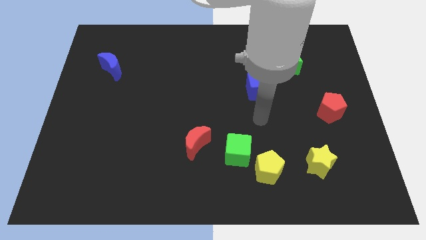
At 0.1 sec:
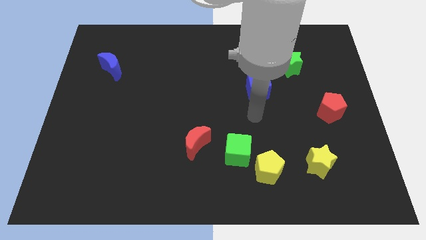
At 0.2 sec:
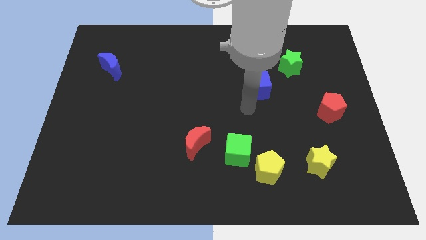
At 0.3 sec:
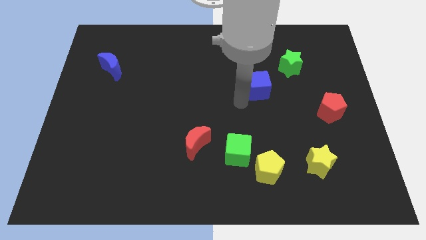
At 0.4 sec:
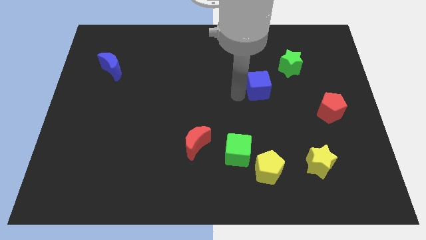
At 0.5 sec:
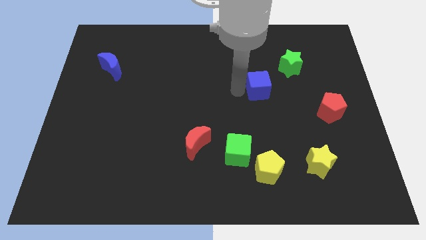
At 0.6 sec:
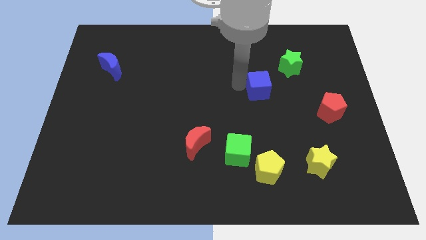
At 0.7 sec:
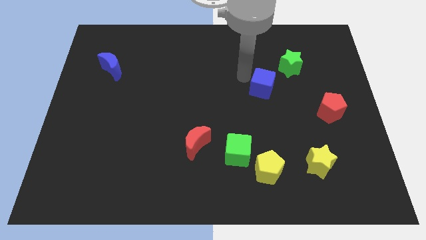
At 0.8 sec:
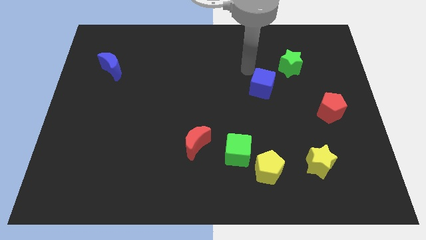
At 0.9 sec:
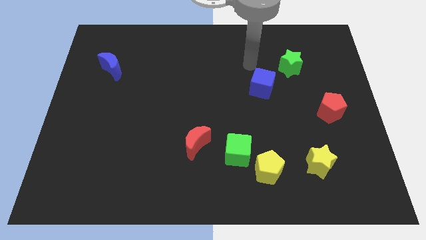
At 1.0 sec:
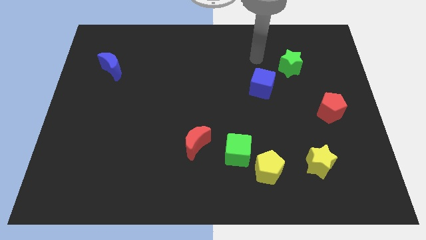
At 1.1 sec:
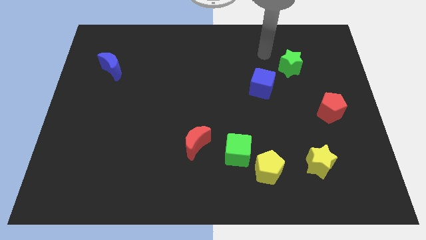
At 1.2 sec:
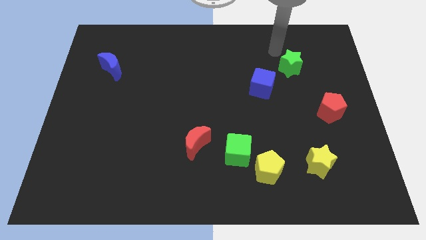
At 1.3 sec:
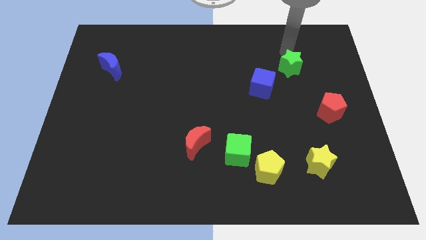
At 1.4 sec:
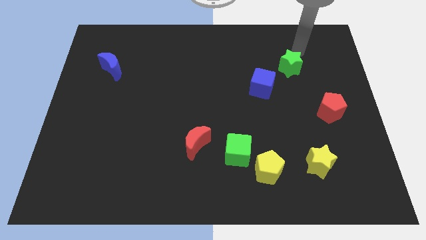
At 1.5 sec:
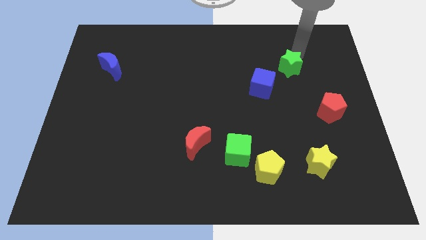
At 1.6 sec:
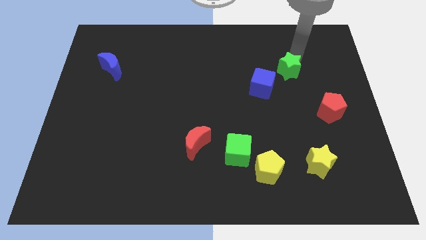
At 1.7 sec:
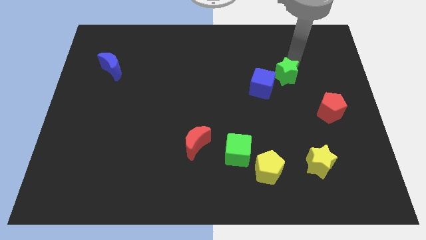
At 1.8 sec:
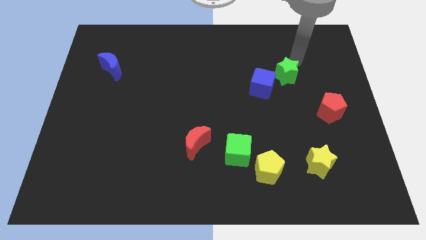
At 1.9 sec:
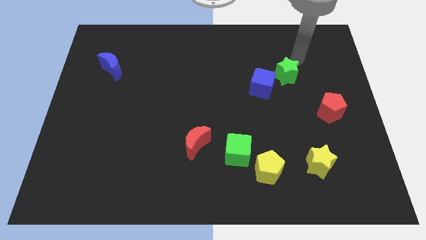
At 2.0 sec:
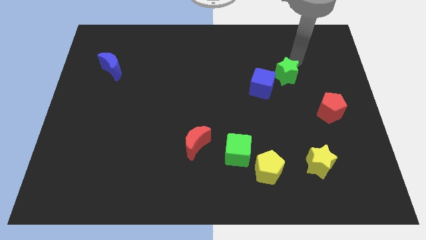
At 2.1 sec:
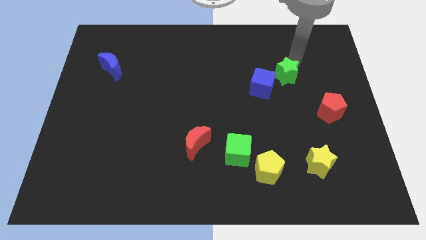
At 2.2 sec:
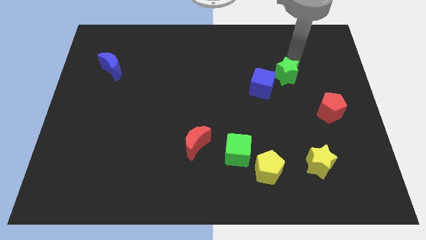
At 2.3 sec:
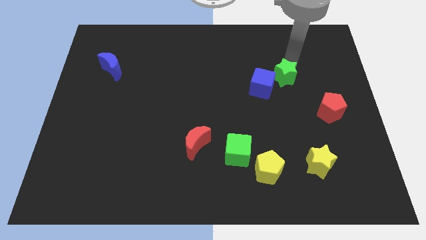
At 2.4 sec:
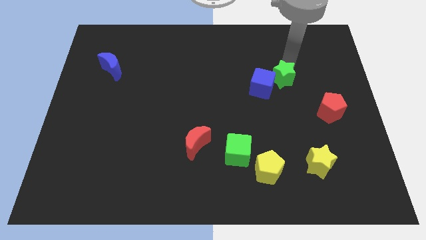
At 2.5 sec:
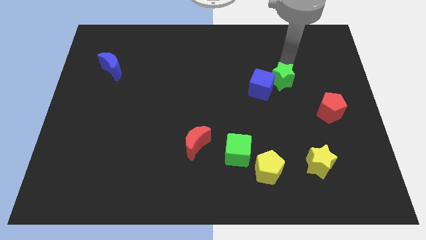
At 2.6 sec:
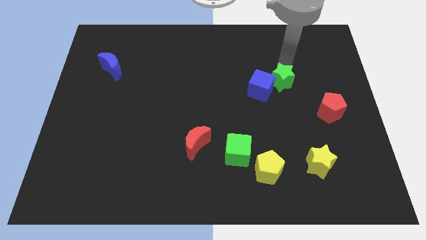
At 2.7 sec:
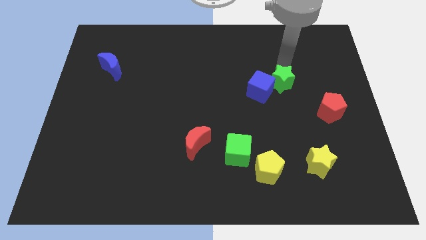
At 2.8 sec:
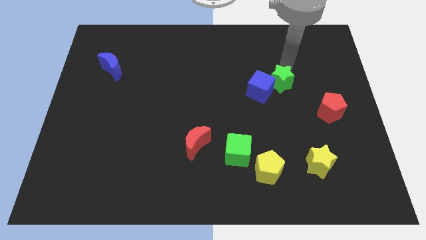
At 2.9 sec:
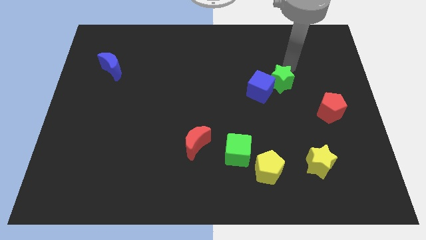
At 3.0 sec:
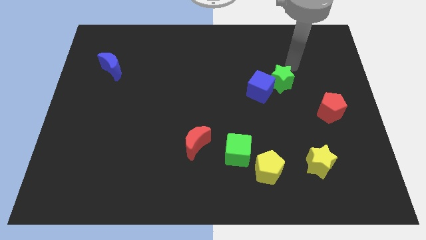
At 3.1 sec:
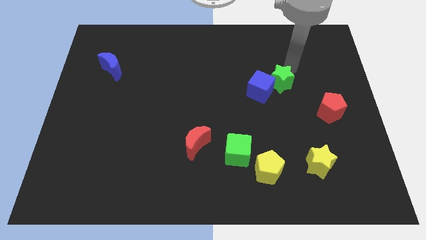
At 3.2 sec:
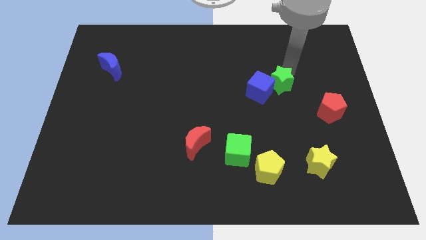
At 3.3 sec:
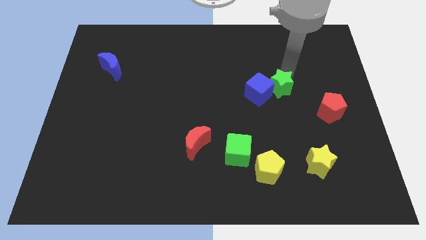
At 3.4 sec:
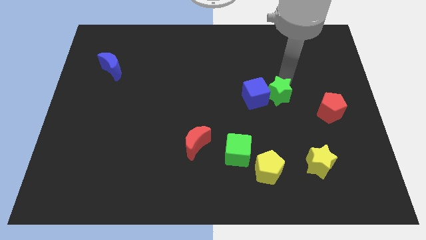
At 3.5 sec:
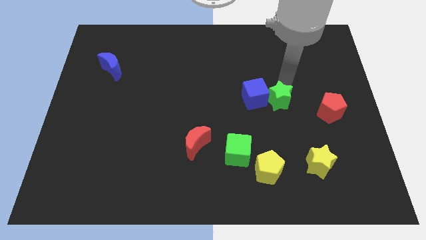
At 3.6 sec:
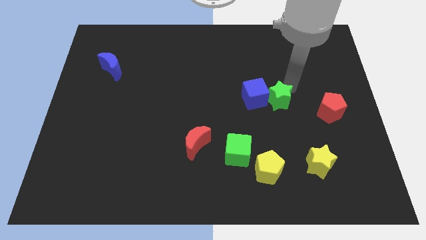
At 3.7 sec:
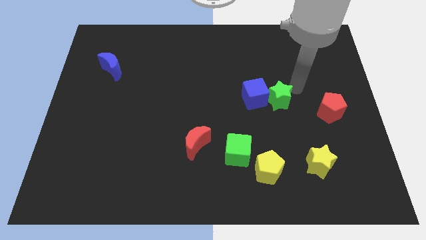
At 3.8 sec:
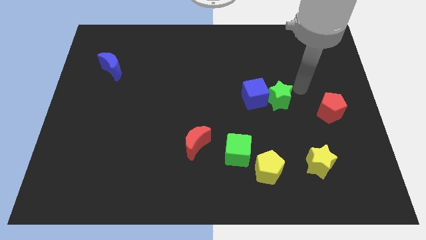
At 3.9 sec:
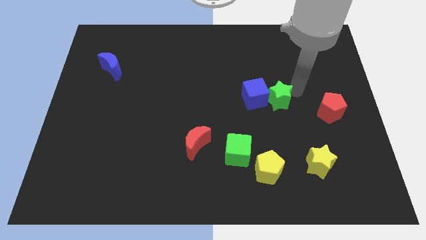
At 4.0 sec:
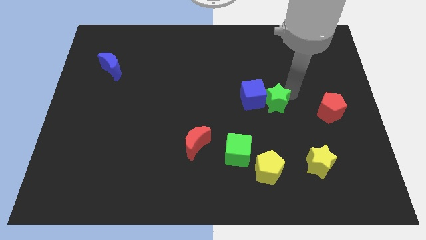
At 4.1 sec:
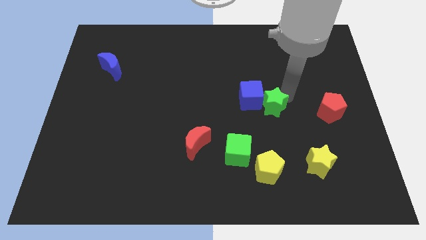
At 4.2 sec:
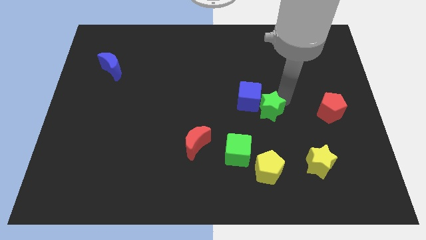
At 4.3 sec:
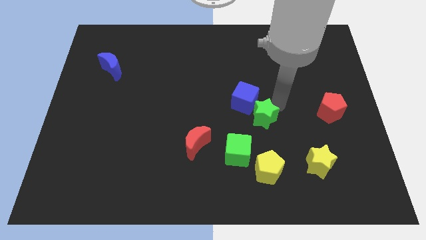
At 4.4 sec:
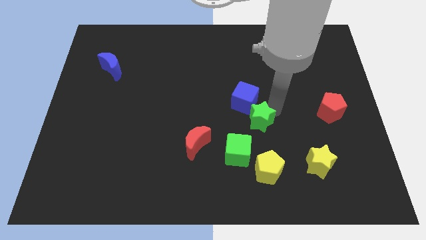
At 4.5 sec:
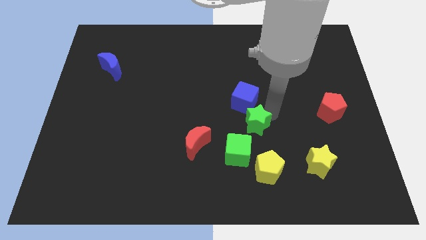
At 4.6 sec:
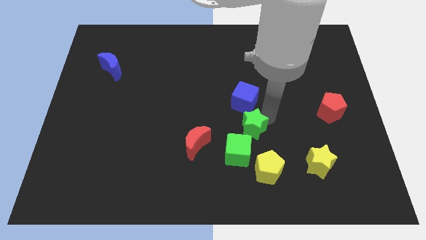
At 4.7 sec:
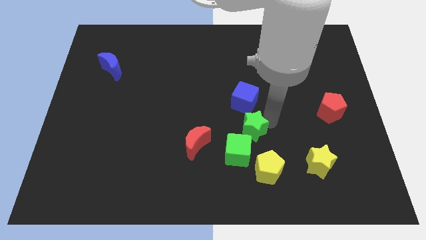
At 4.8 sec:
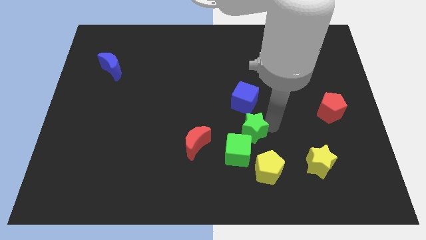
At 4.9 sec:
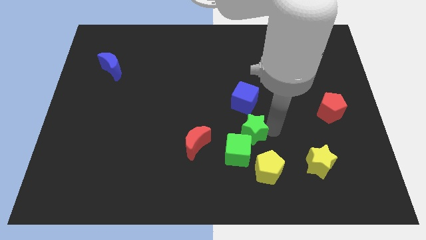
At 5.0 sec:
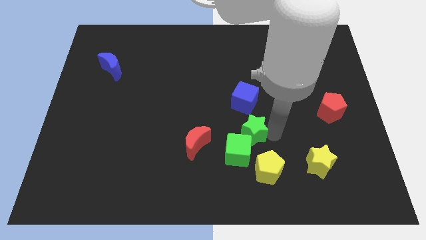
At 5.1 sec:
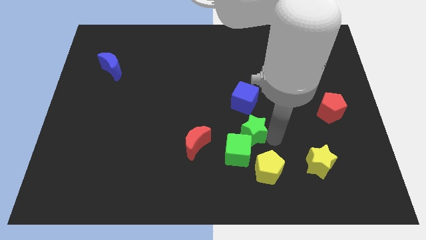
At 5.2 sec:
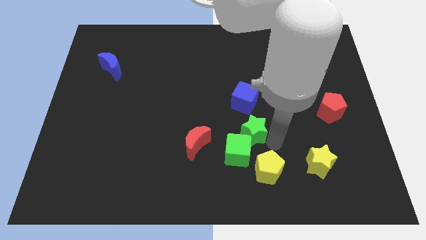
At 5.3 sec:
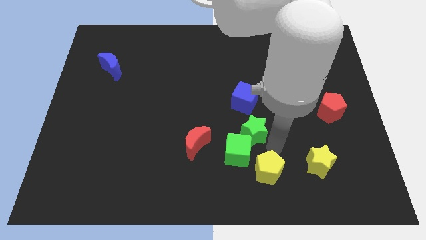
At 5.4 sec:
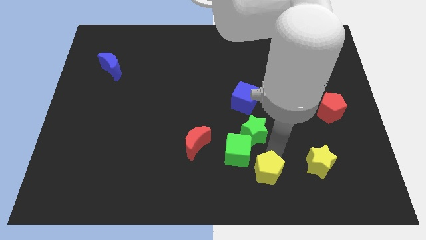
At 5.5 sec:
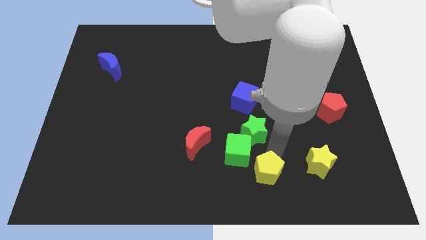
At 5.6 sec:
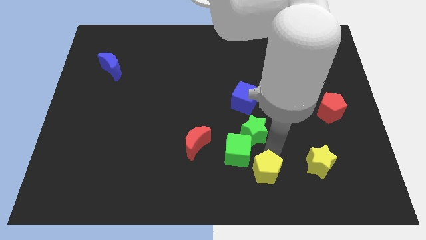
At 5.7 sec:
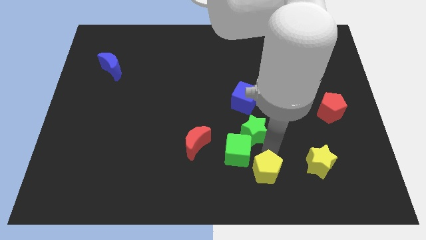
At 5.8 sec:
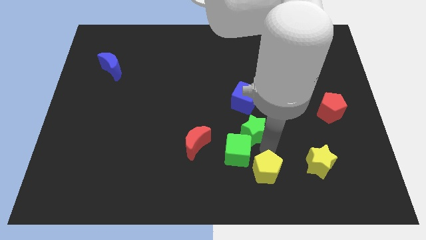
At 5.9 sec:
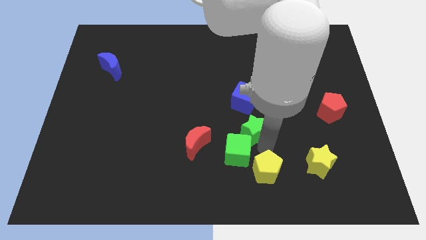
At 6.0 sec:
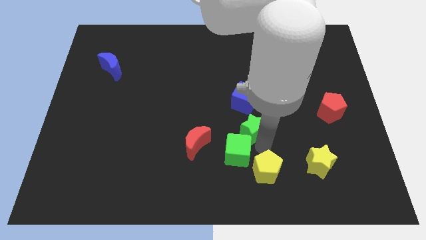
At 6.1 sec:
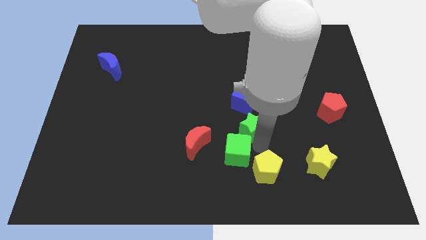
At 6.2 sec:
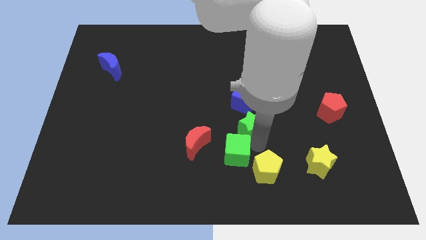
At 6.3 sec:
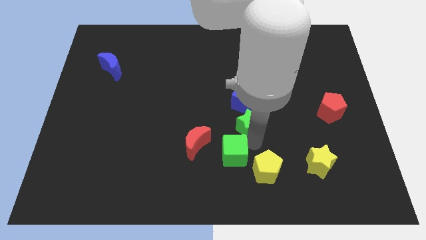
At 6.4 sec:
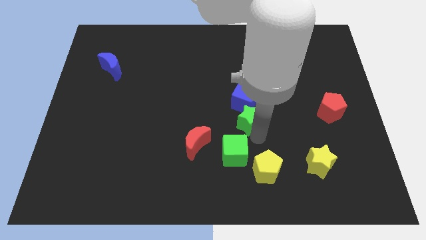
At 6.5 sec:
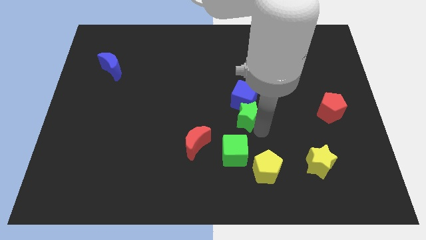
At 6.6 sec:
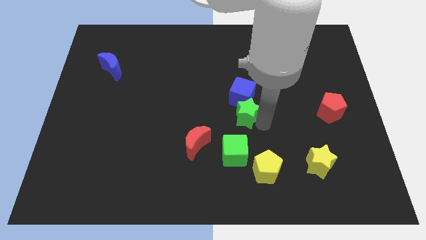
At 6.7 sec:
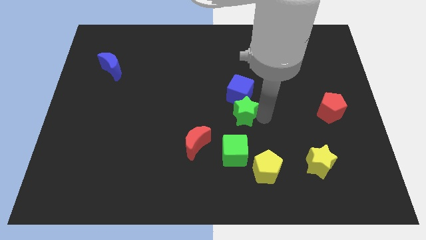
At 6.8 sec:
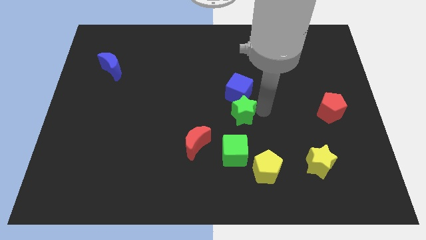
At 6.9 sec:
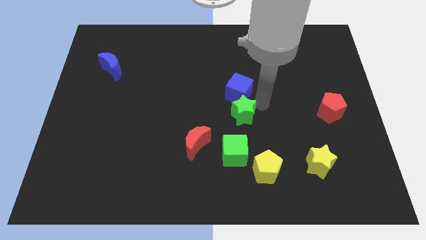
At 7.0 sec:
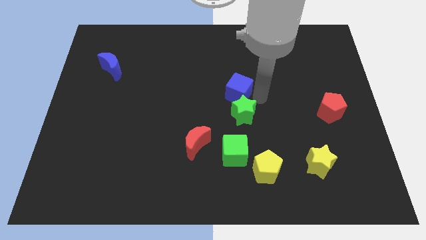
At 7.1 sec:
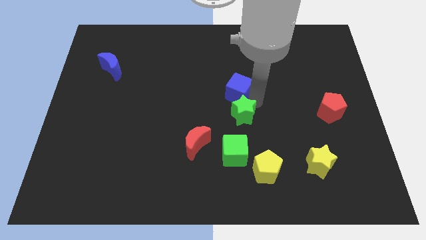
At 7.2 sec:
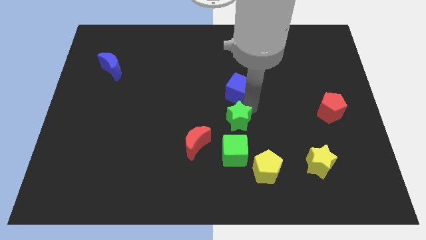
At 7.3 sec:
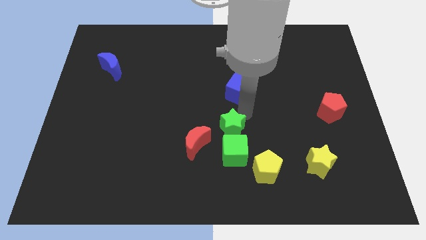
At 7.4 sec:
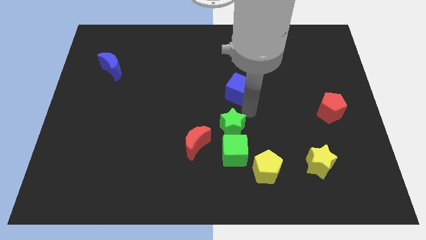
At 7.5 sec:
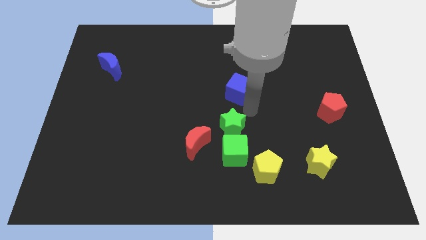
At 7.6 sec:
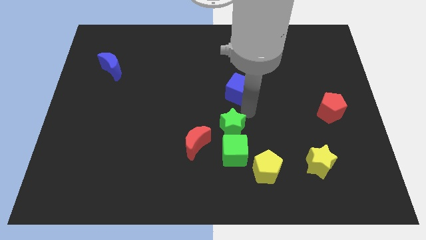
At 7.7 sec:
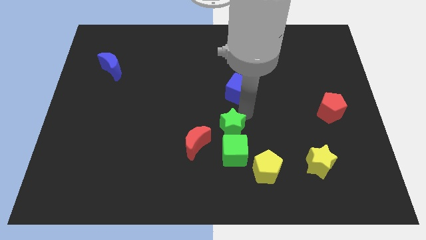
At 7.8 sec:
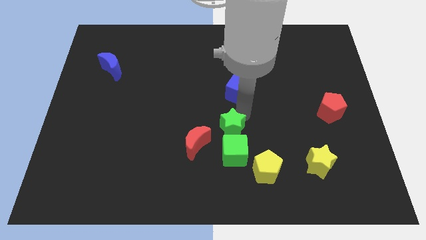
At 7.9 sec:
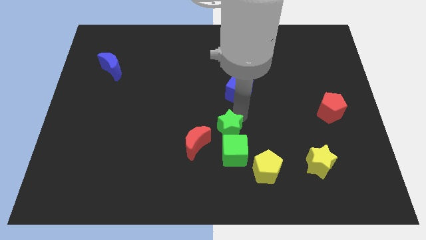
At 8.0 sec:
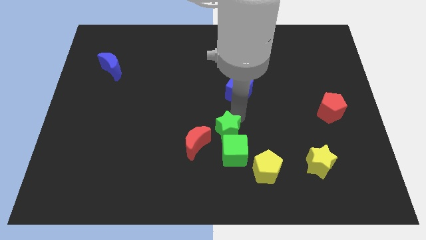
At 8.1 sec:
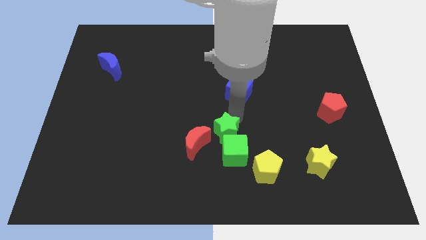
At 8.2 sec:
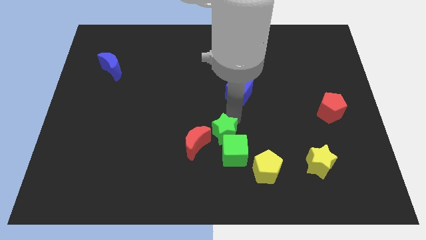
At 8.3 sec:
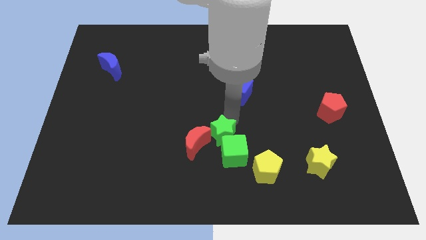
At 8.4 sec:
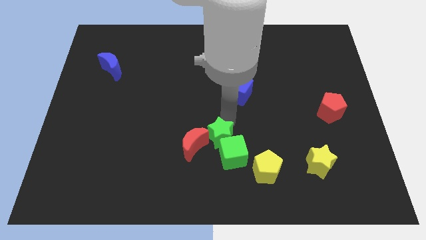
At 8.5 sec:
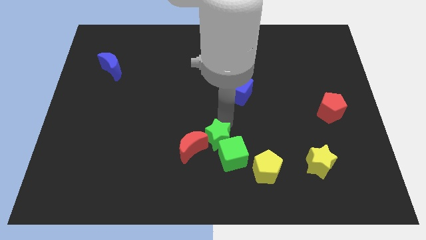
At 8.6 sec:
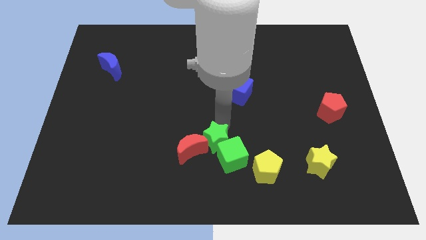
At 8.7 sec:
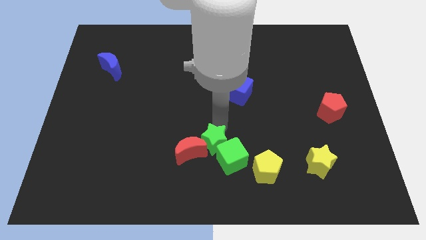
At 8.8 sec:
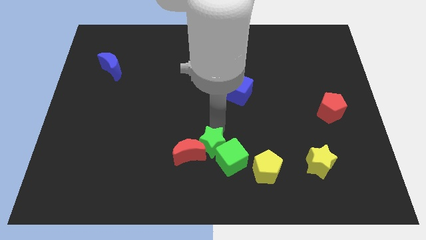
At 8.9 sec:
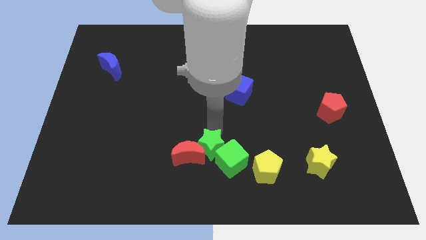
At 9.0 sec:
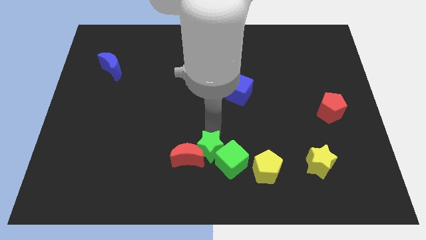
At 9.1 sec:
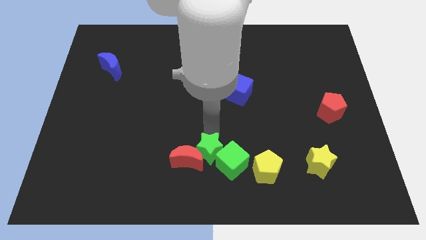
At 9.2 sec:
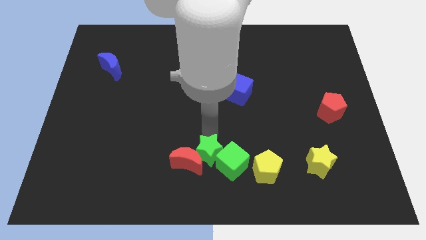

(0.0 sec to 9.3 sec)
move the green star to the bottom side
